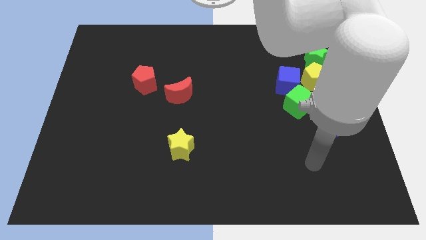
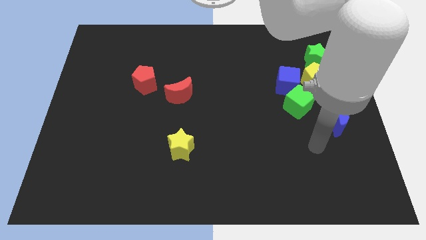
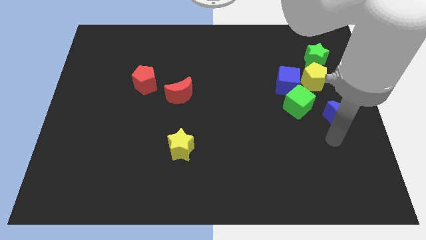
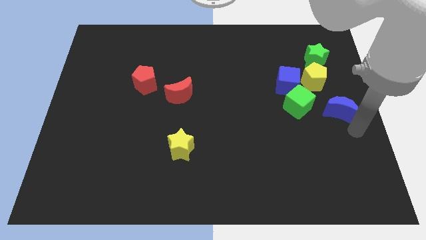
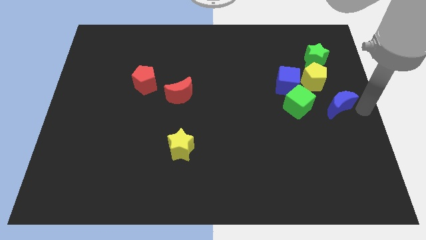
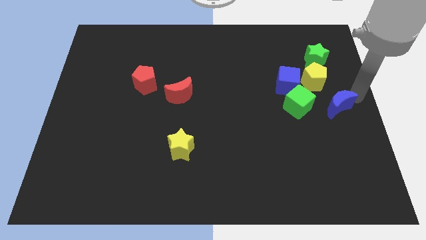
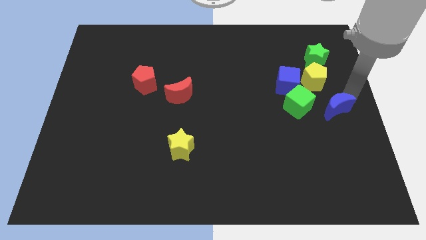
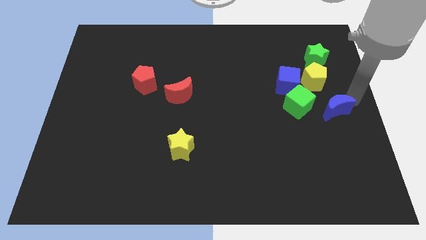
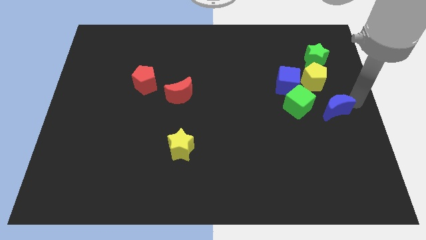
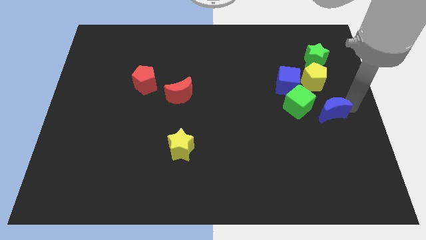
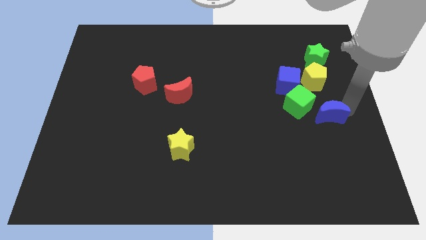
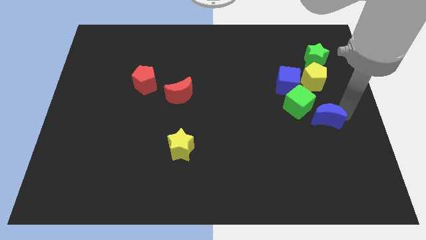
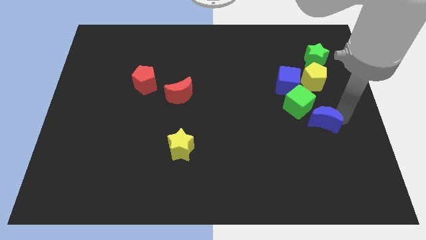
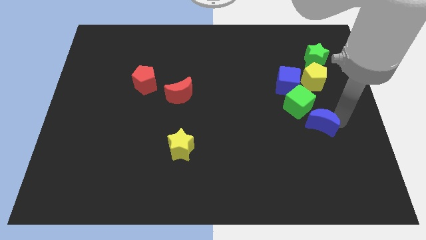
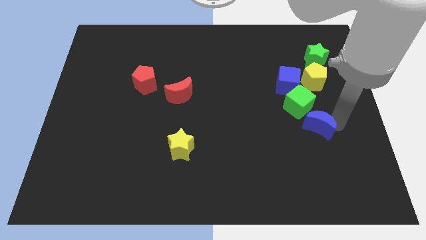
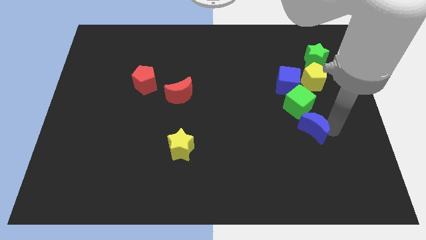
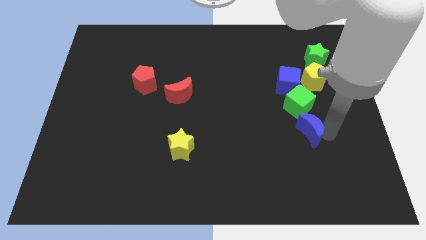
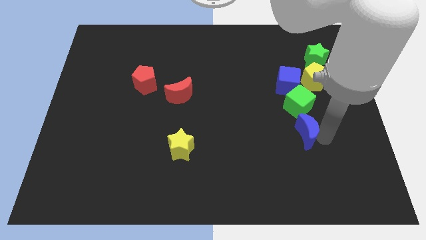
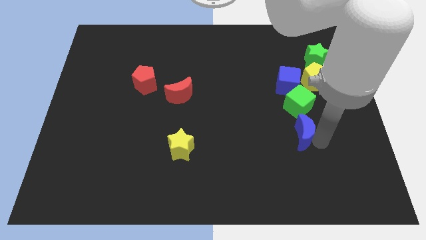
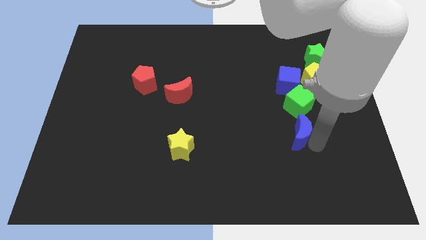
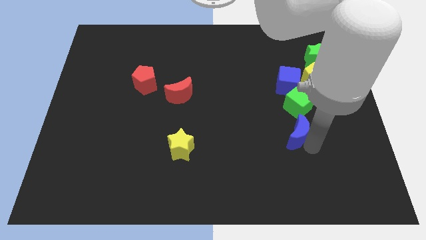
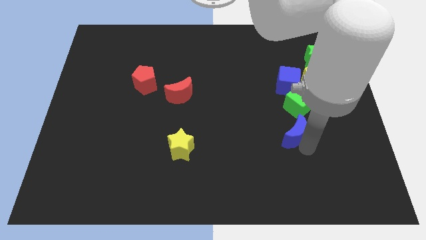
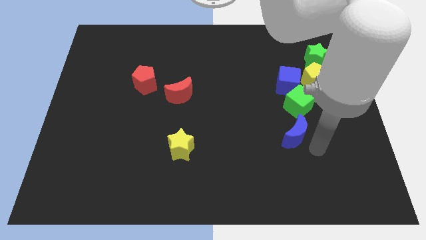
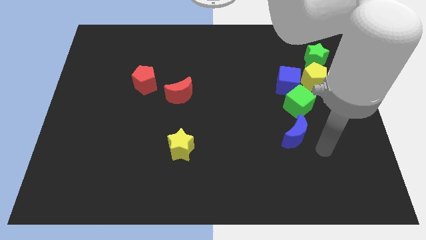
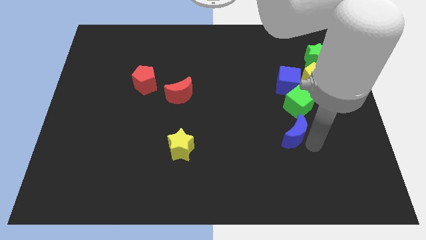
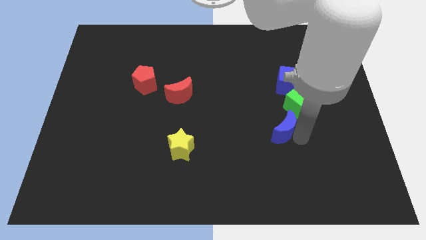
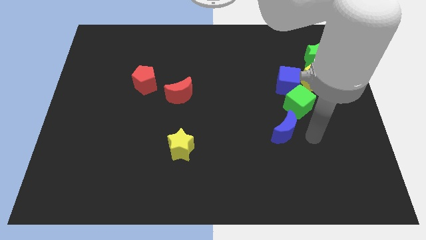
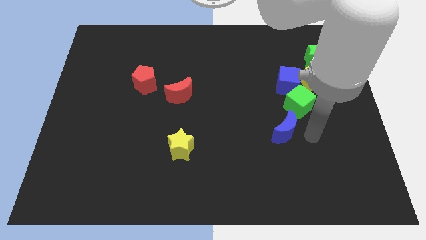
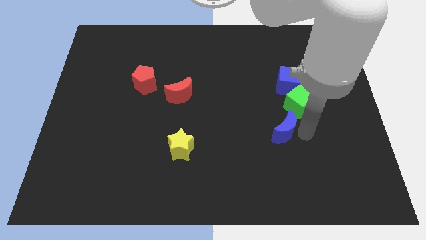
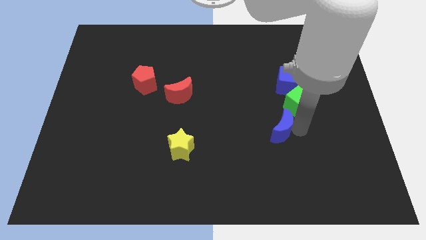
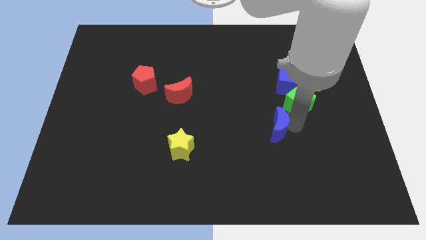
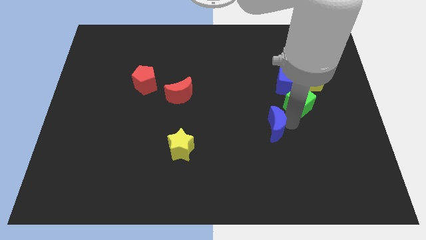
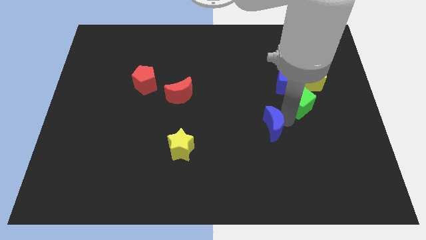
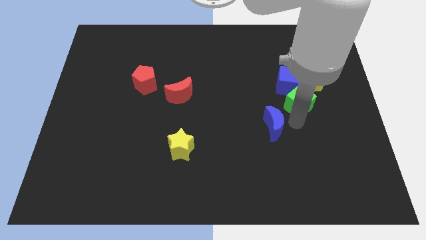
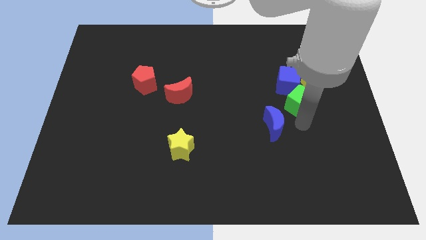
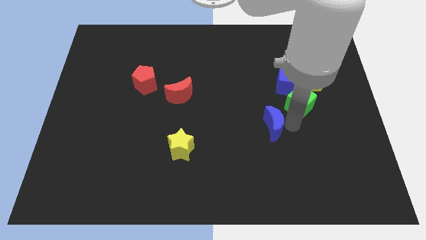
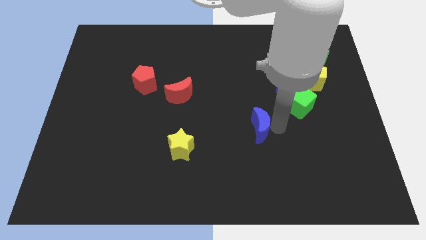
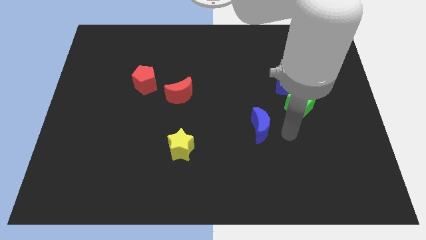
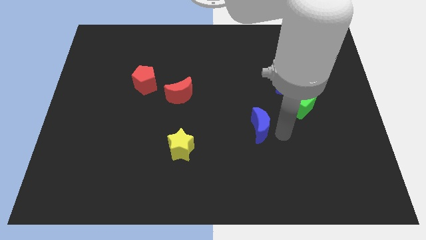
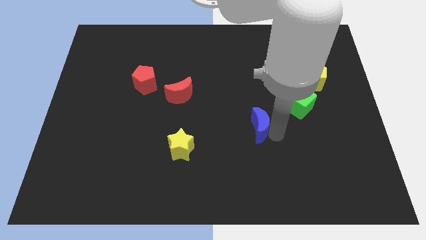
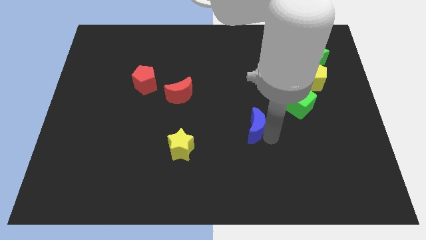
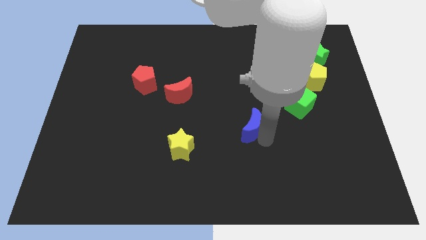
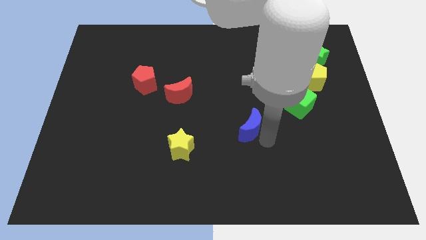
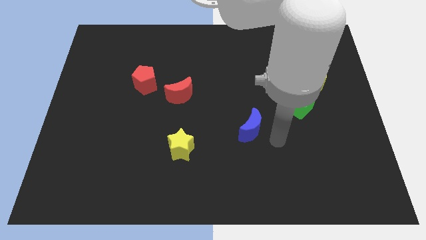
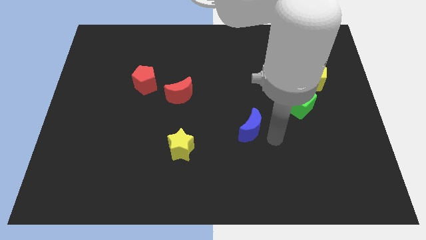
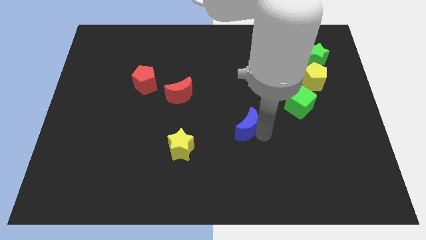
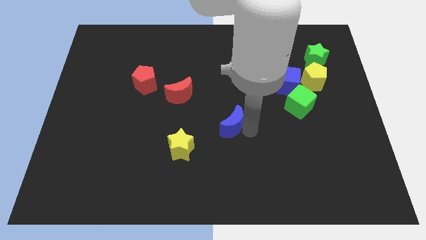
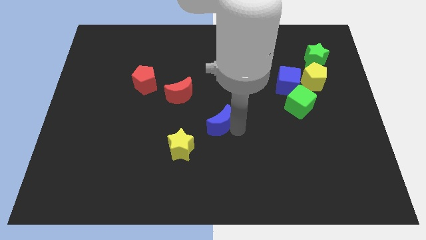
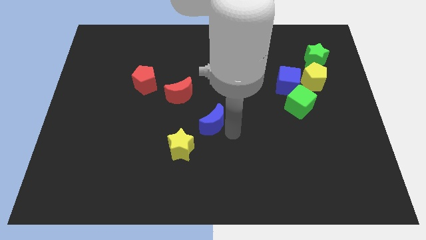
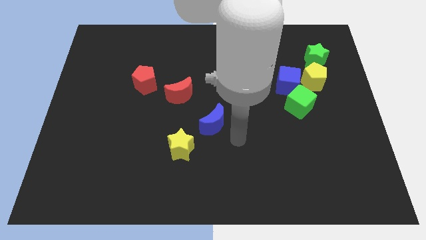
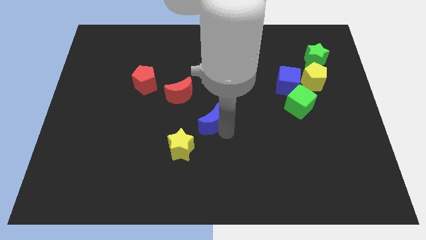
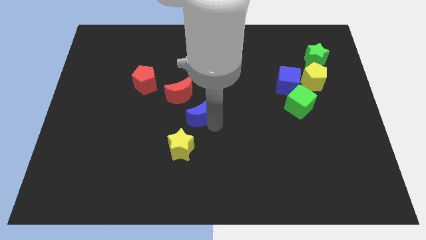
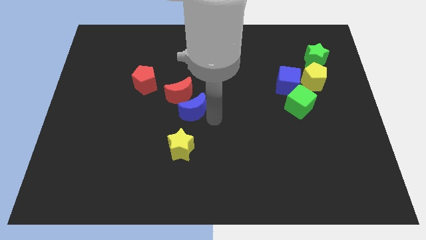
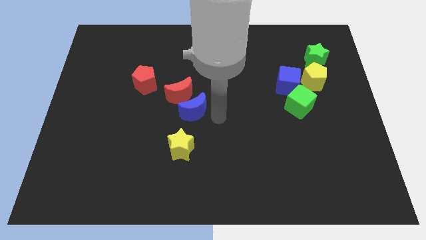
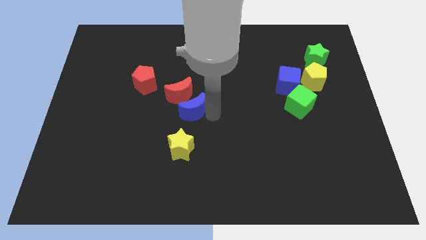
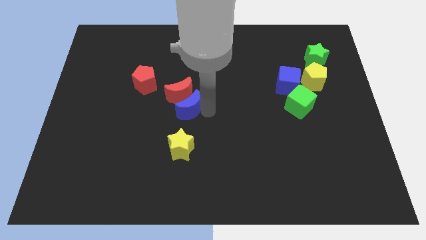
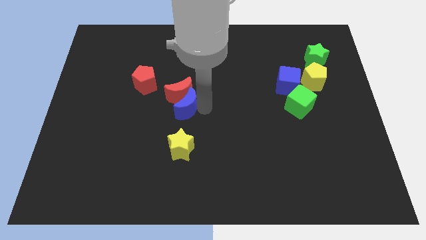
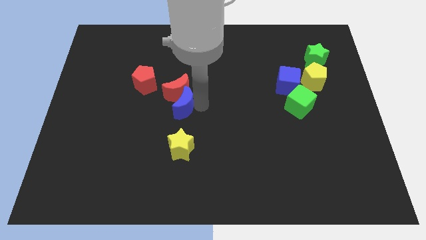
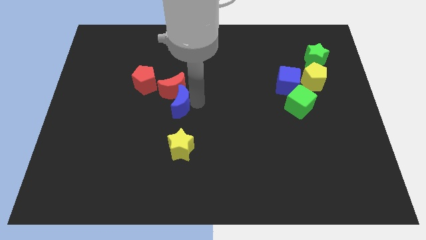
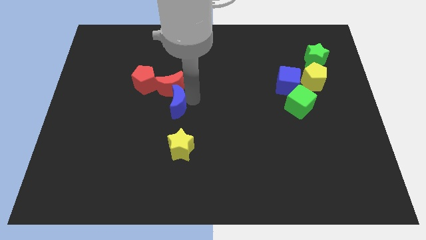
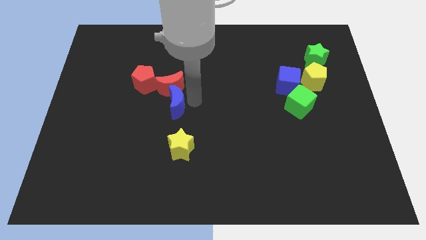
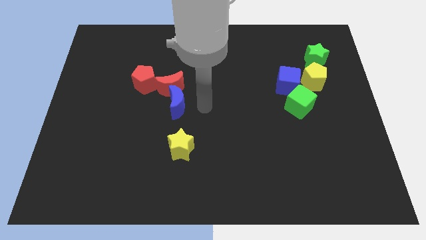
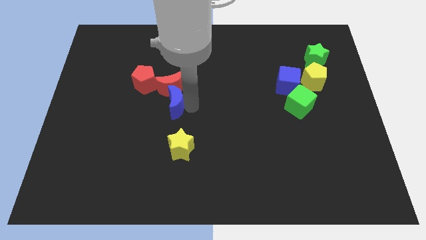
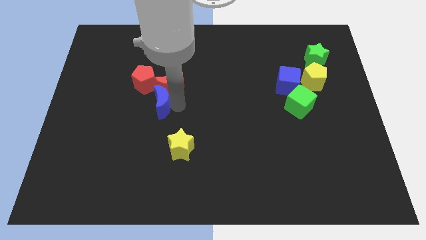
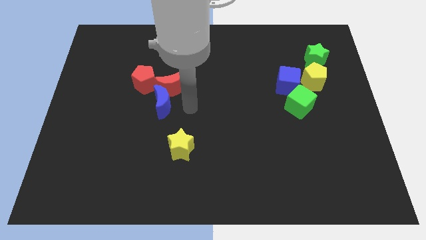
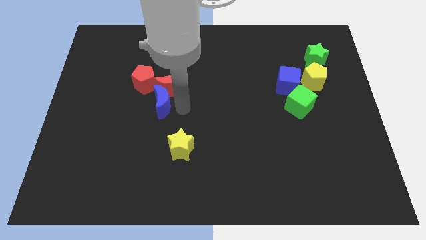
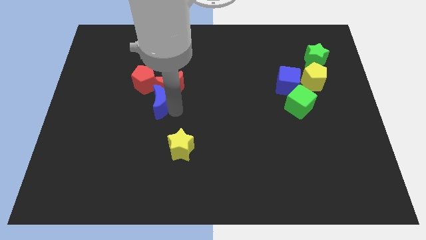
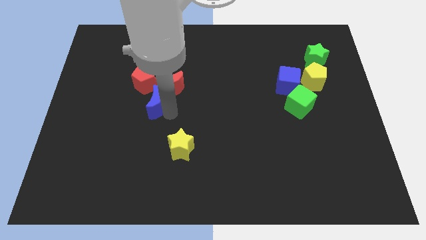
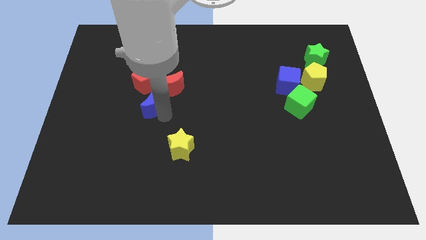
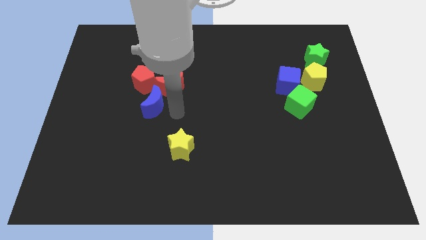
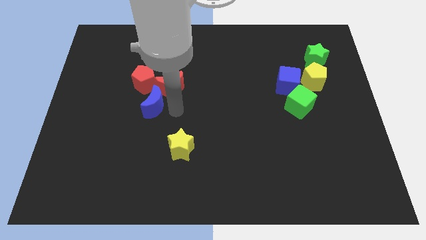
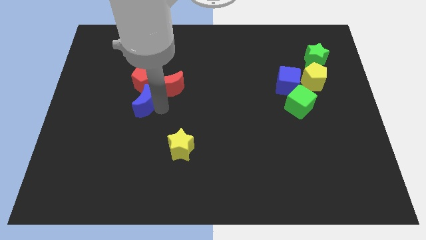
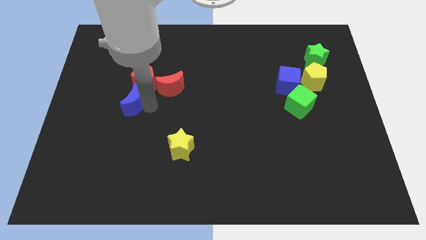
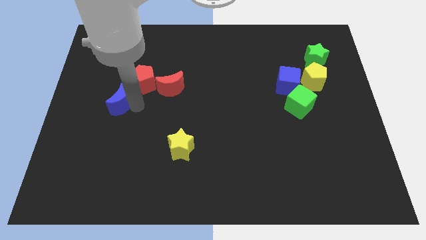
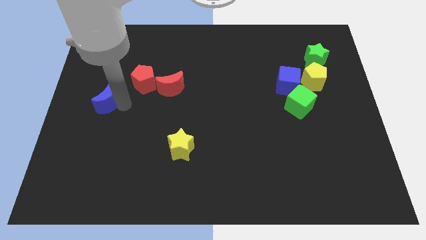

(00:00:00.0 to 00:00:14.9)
move the blue moon to the left side
